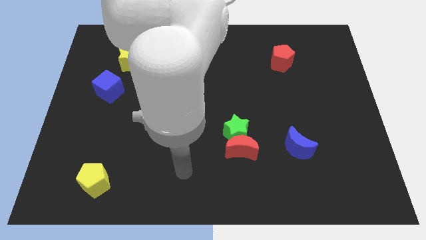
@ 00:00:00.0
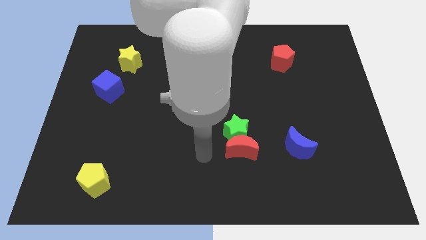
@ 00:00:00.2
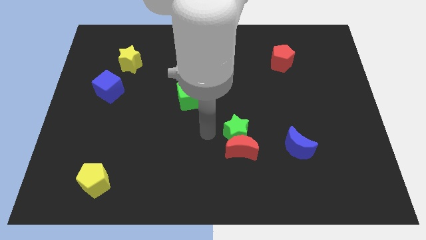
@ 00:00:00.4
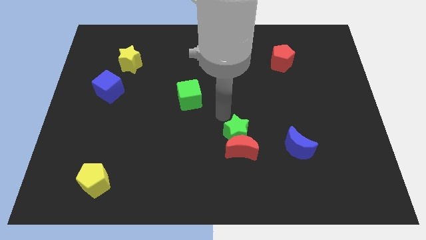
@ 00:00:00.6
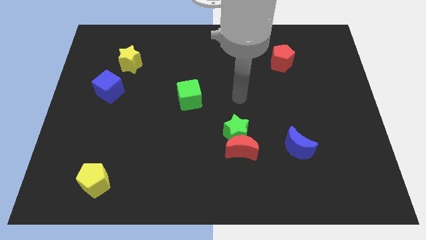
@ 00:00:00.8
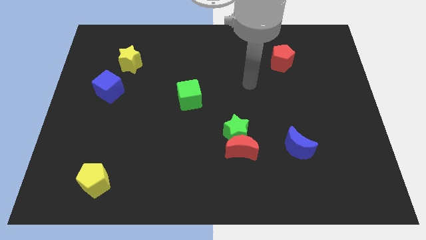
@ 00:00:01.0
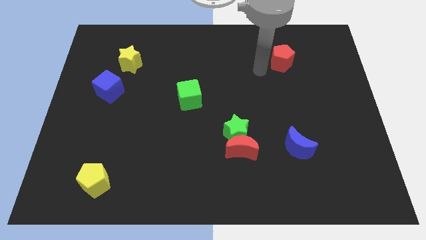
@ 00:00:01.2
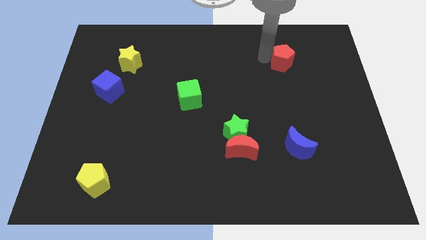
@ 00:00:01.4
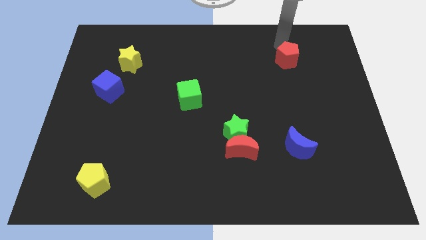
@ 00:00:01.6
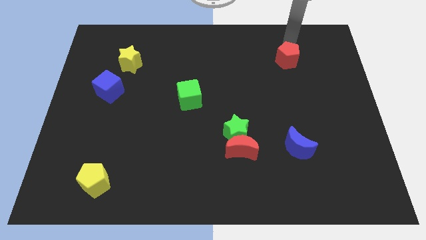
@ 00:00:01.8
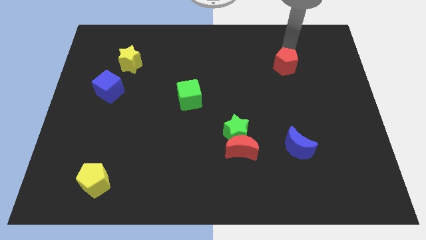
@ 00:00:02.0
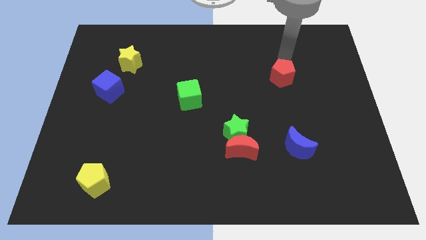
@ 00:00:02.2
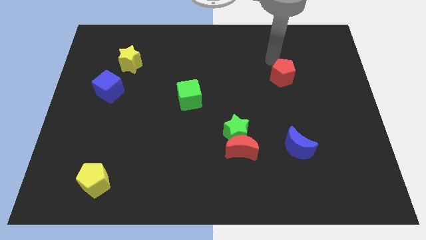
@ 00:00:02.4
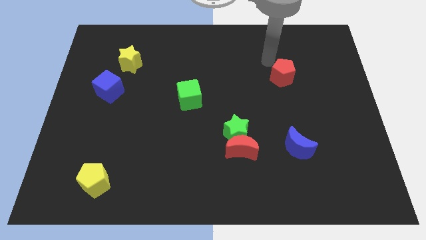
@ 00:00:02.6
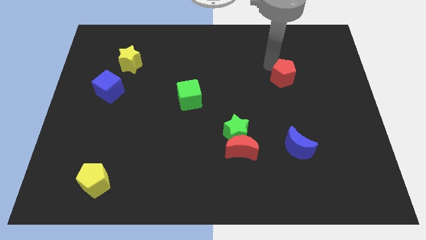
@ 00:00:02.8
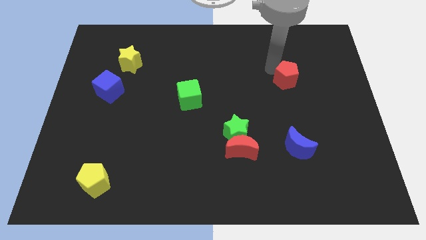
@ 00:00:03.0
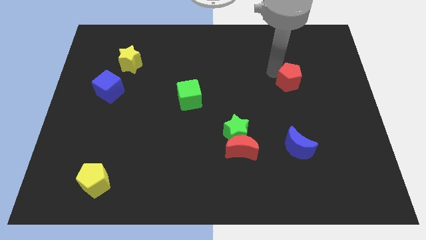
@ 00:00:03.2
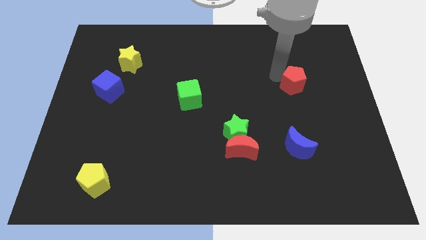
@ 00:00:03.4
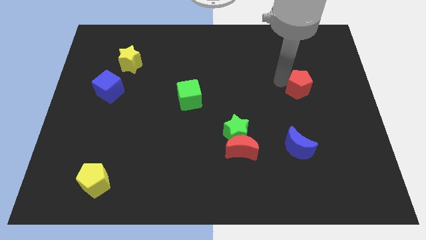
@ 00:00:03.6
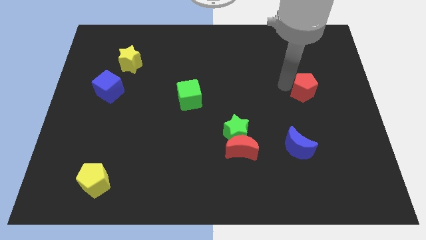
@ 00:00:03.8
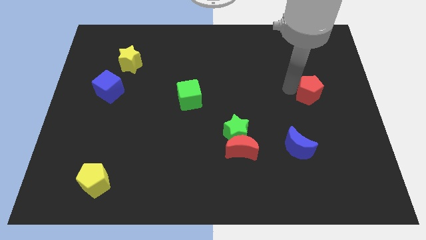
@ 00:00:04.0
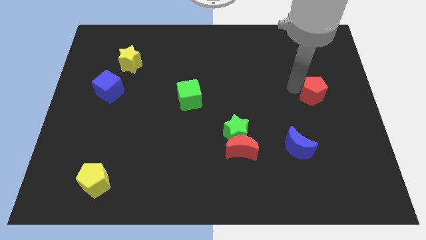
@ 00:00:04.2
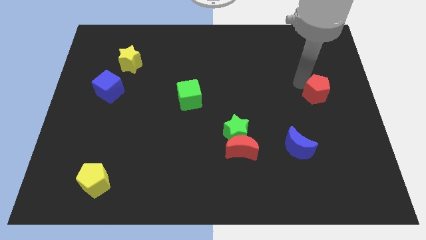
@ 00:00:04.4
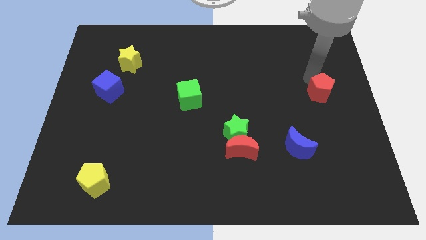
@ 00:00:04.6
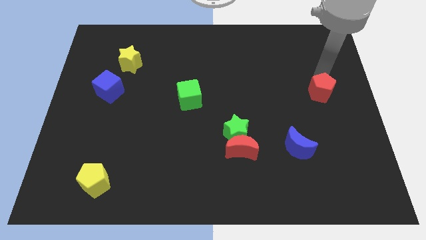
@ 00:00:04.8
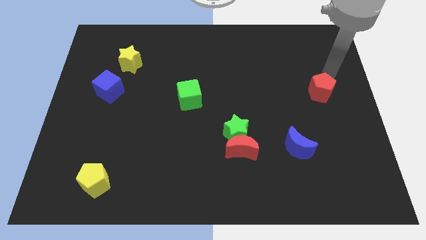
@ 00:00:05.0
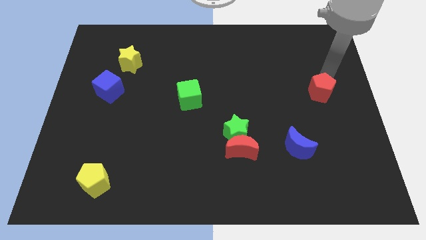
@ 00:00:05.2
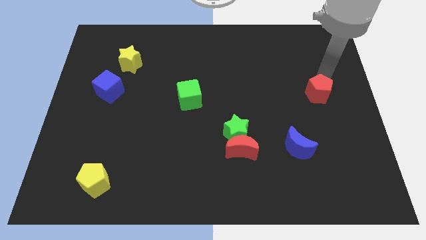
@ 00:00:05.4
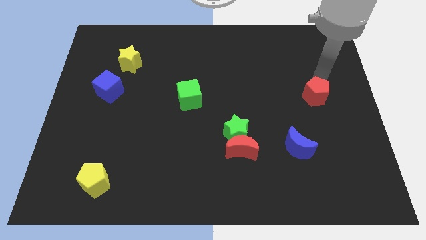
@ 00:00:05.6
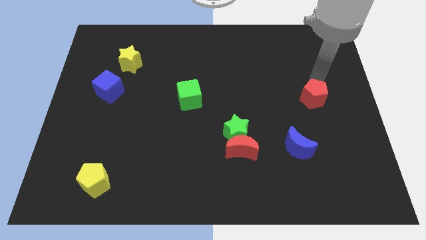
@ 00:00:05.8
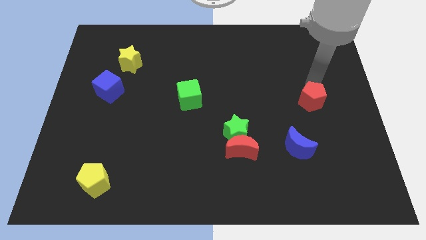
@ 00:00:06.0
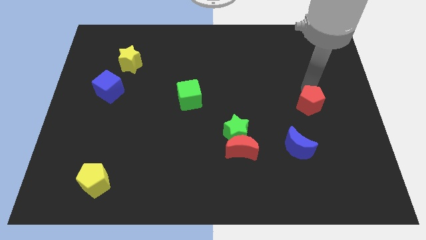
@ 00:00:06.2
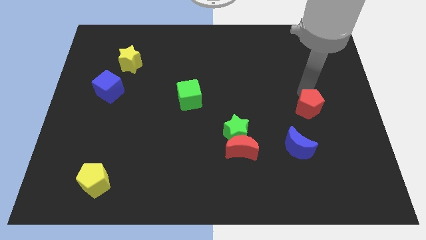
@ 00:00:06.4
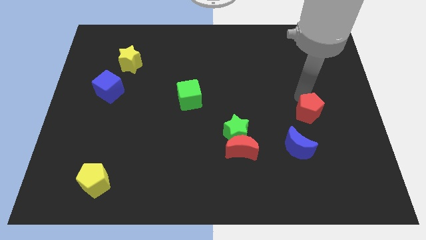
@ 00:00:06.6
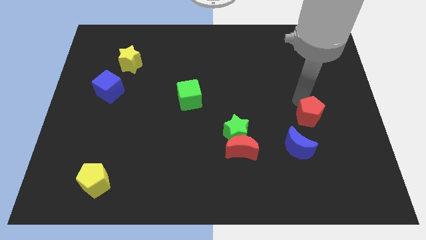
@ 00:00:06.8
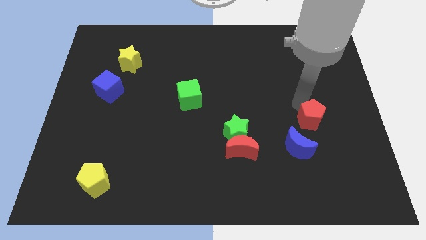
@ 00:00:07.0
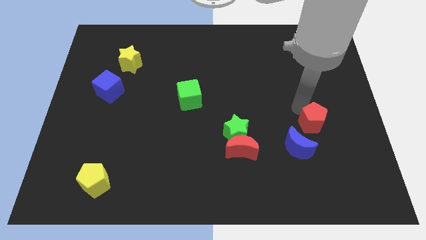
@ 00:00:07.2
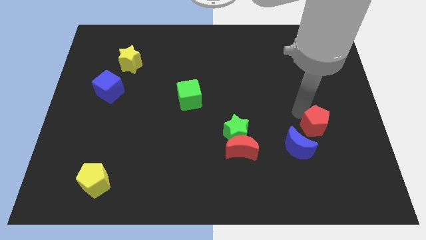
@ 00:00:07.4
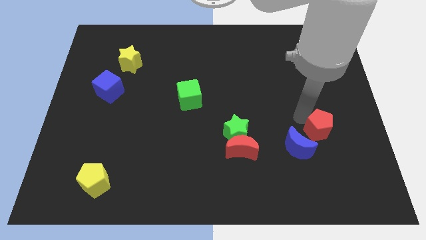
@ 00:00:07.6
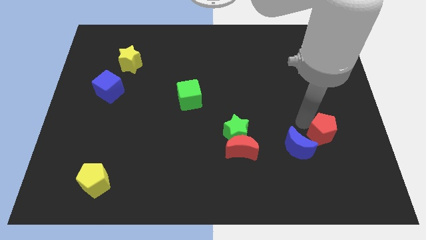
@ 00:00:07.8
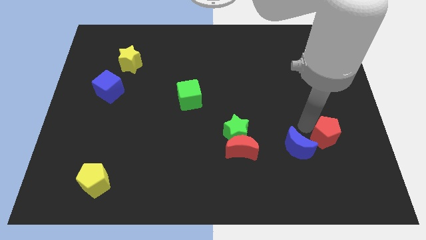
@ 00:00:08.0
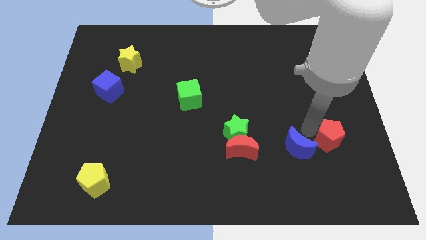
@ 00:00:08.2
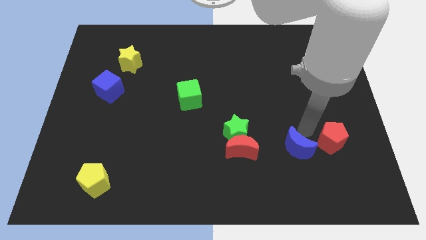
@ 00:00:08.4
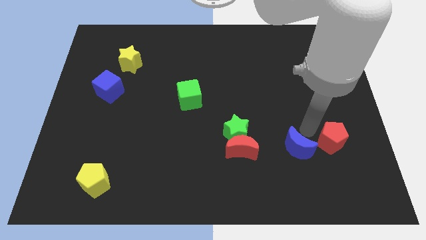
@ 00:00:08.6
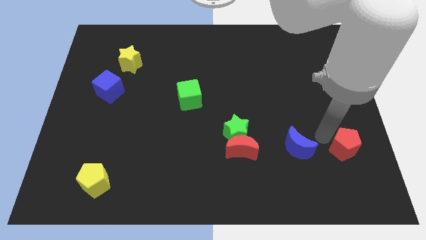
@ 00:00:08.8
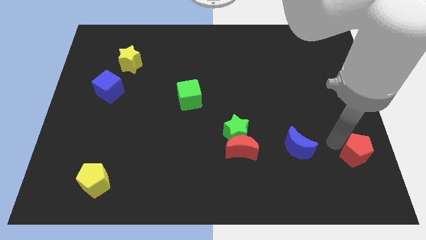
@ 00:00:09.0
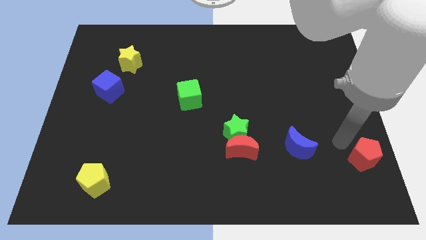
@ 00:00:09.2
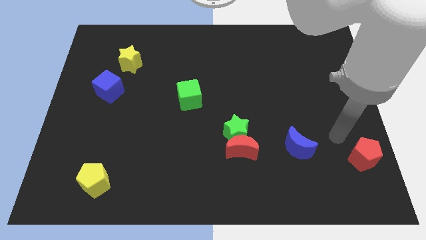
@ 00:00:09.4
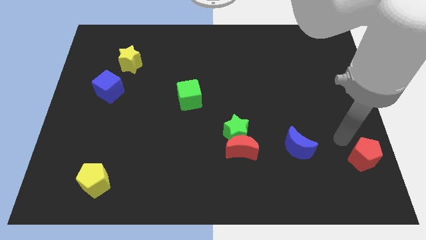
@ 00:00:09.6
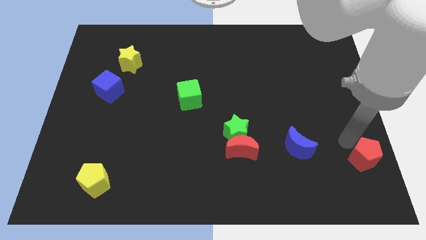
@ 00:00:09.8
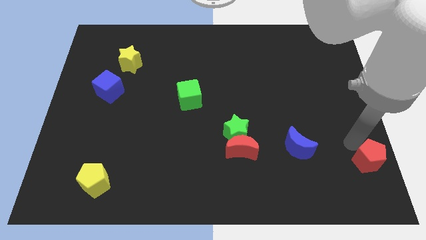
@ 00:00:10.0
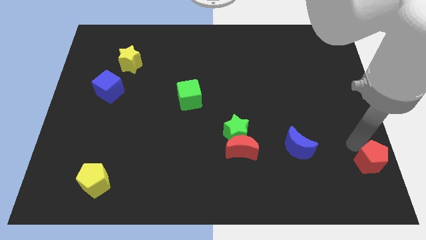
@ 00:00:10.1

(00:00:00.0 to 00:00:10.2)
push the red pentagon to the bottom right of the board

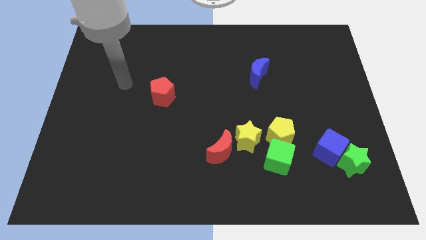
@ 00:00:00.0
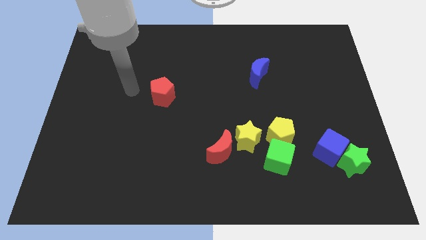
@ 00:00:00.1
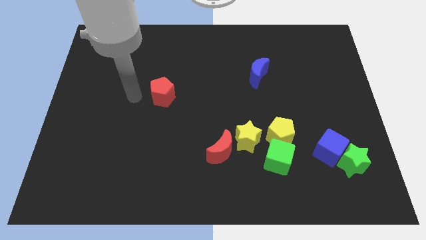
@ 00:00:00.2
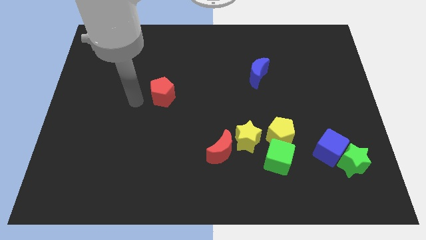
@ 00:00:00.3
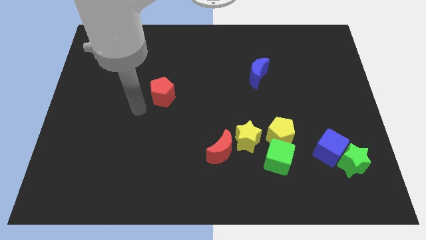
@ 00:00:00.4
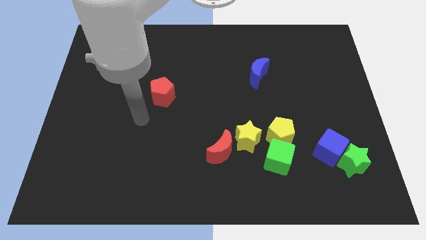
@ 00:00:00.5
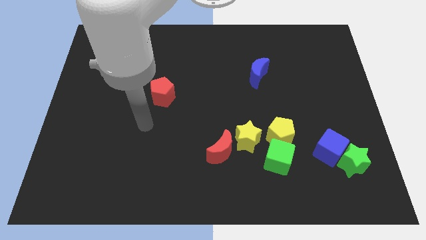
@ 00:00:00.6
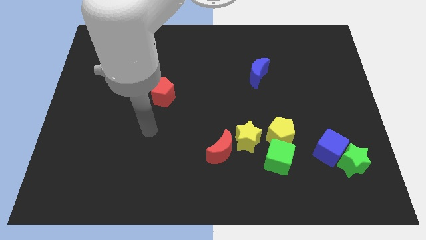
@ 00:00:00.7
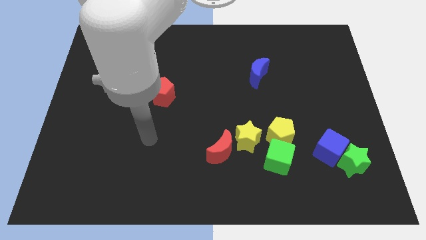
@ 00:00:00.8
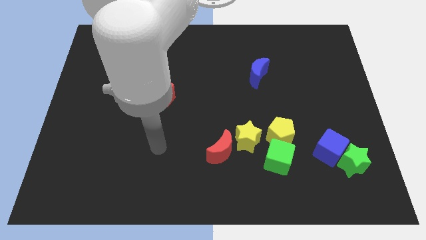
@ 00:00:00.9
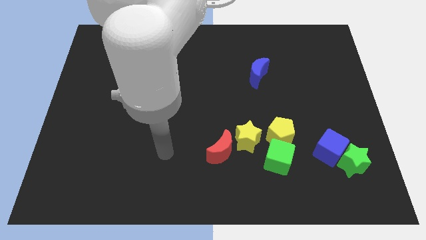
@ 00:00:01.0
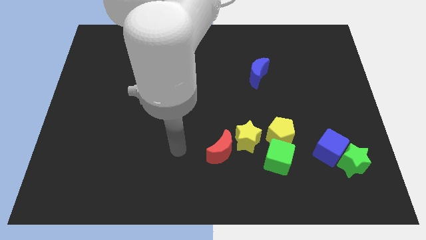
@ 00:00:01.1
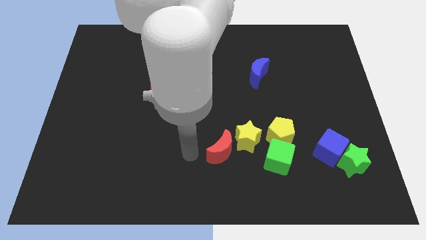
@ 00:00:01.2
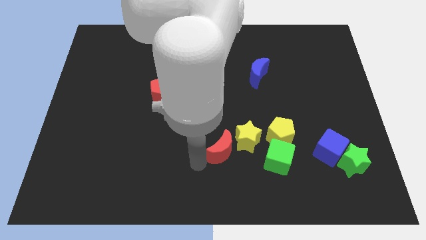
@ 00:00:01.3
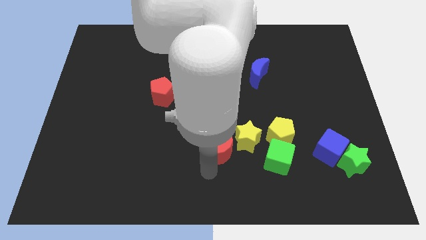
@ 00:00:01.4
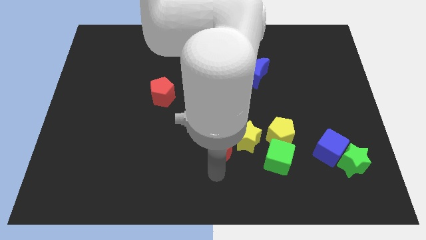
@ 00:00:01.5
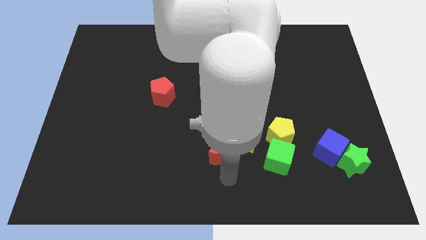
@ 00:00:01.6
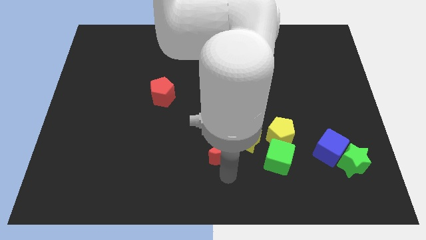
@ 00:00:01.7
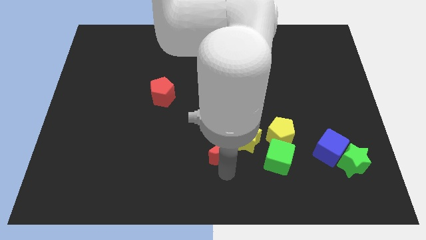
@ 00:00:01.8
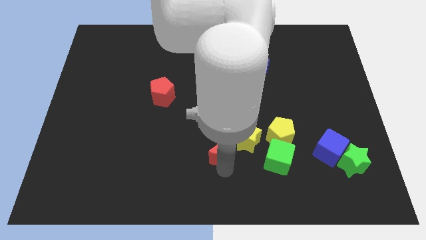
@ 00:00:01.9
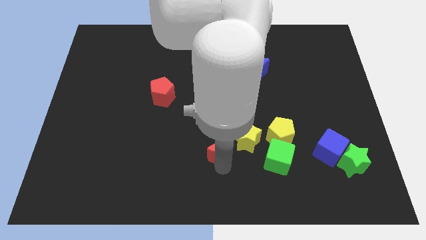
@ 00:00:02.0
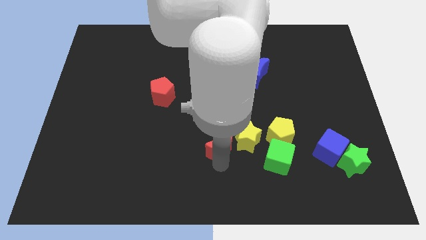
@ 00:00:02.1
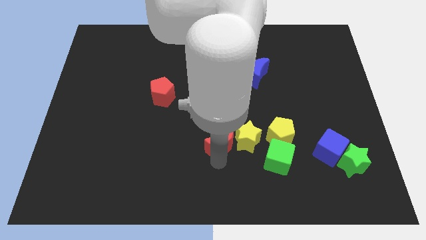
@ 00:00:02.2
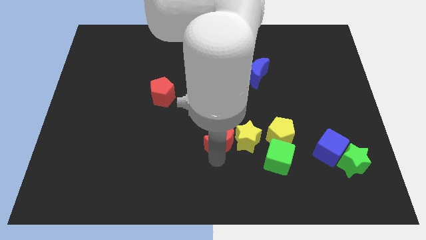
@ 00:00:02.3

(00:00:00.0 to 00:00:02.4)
push the red moon to the middle
